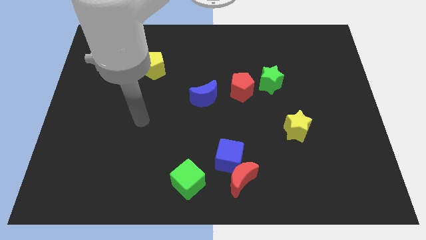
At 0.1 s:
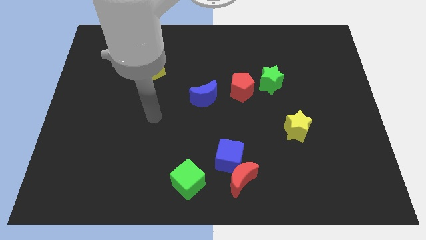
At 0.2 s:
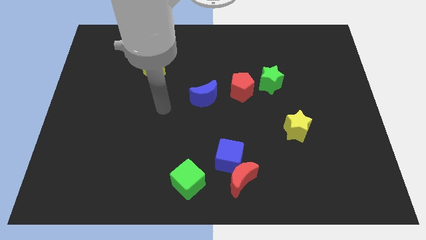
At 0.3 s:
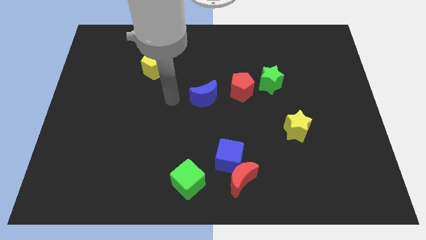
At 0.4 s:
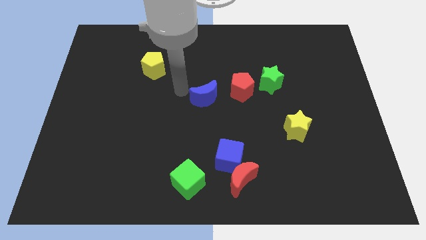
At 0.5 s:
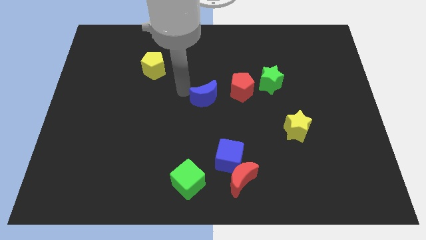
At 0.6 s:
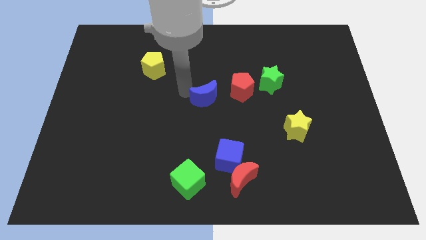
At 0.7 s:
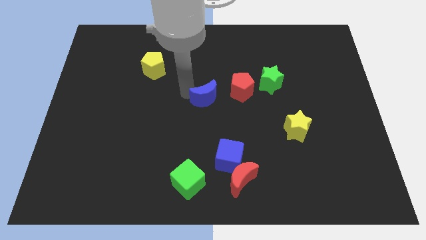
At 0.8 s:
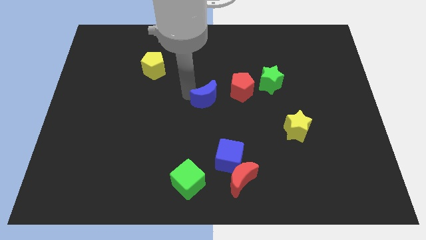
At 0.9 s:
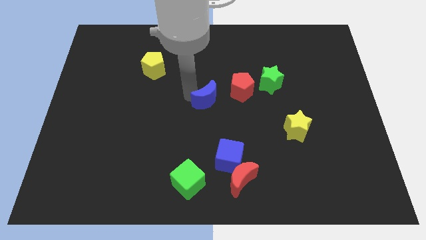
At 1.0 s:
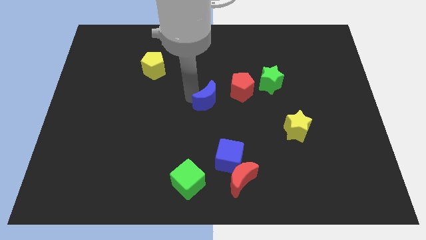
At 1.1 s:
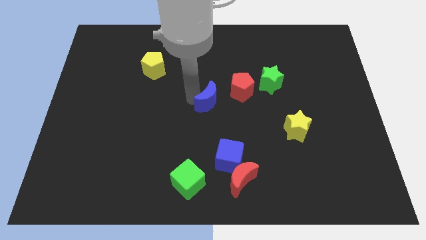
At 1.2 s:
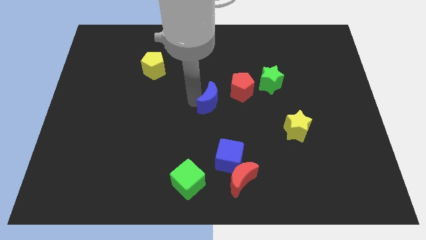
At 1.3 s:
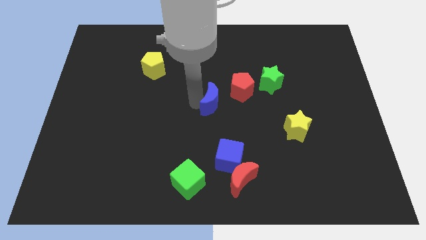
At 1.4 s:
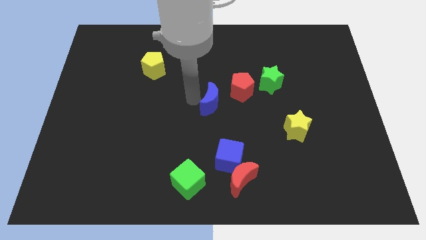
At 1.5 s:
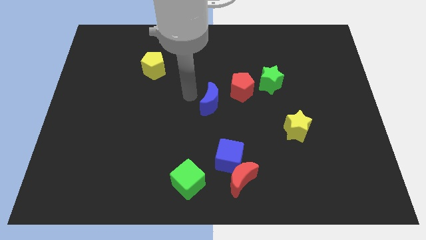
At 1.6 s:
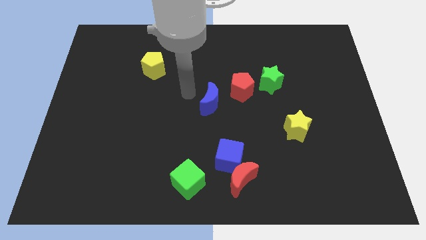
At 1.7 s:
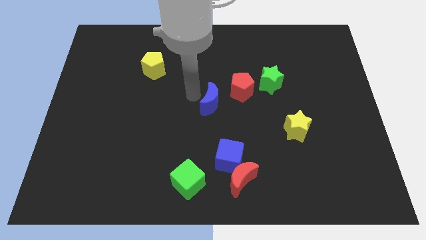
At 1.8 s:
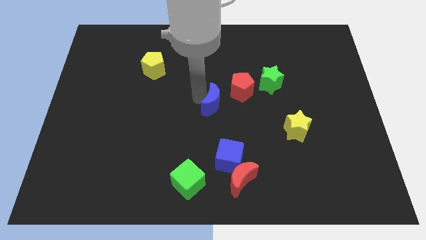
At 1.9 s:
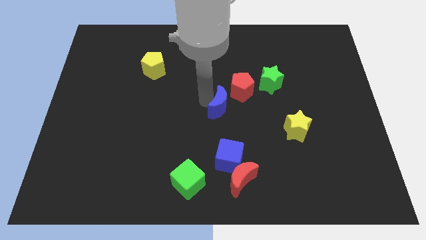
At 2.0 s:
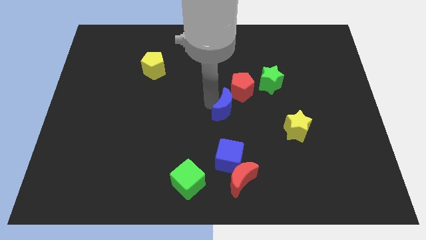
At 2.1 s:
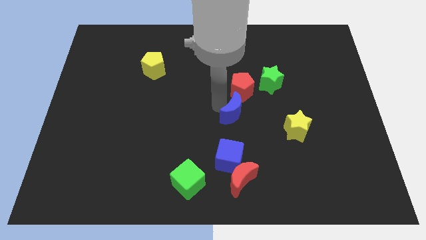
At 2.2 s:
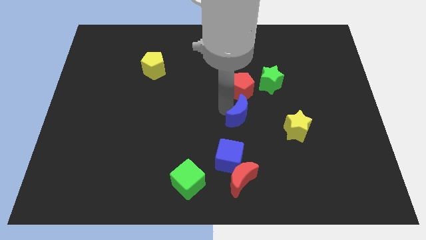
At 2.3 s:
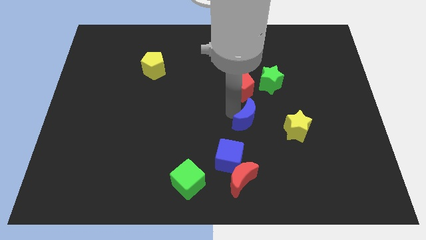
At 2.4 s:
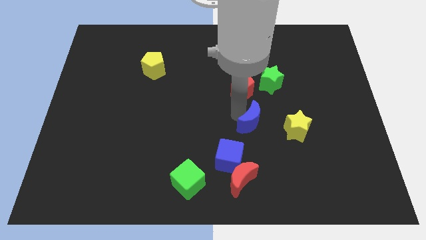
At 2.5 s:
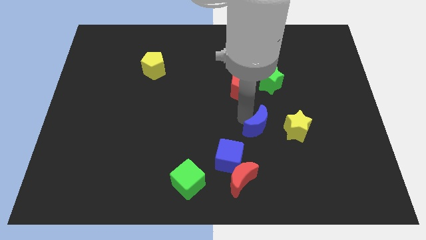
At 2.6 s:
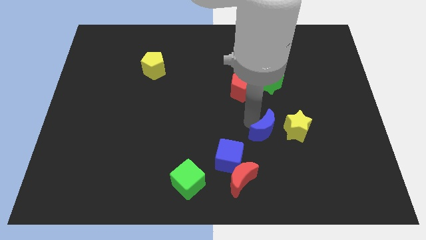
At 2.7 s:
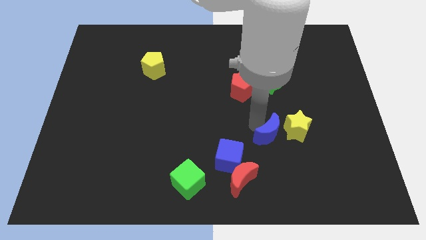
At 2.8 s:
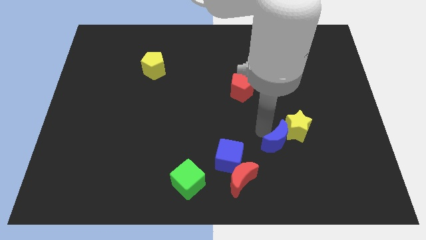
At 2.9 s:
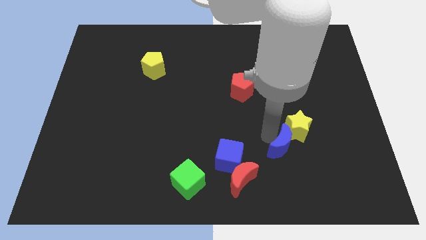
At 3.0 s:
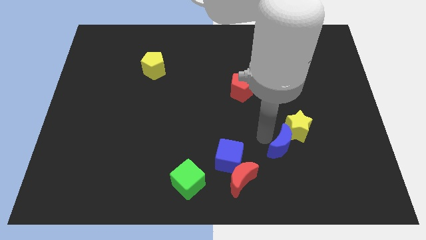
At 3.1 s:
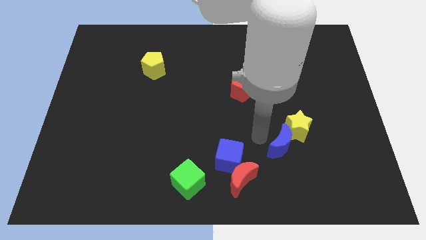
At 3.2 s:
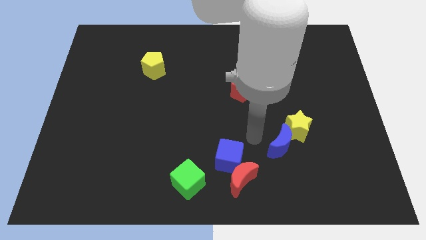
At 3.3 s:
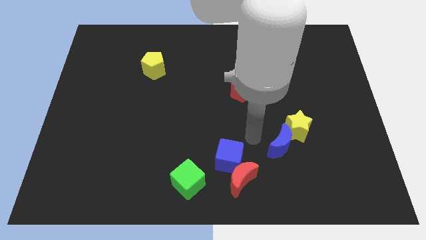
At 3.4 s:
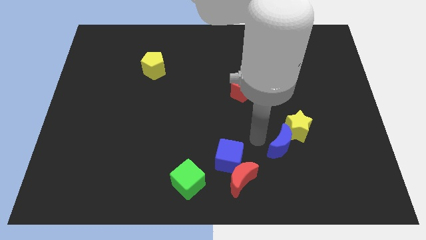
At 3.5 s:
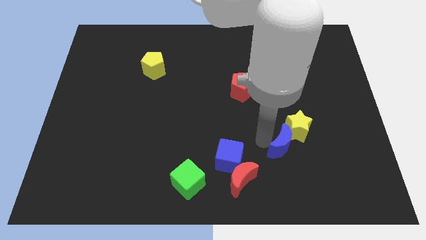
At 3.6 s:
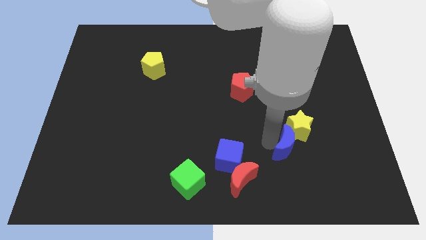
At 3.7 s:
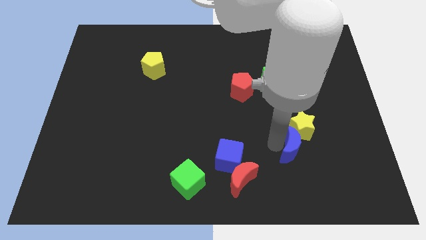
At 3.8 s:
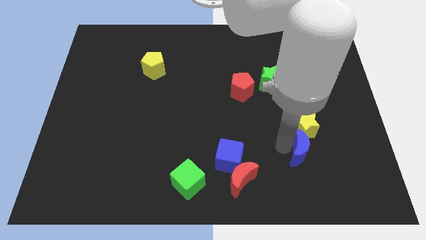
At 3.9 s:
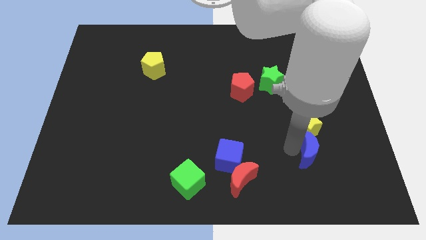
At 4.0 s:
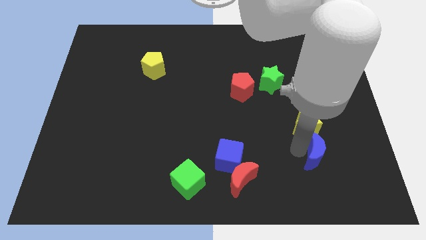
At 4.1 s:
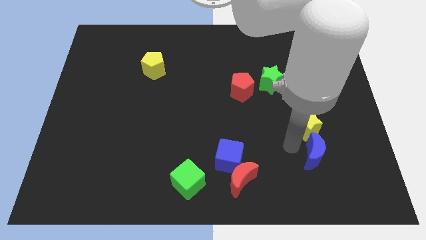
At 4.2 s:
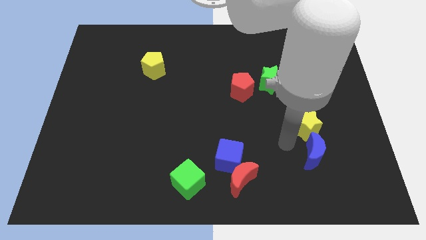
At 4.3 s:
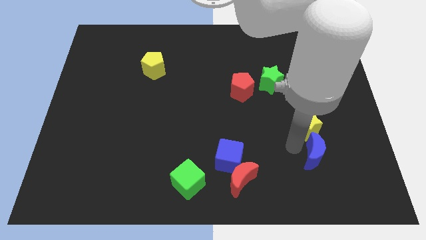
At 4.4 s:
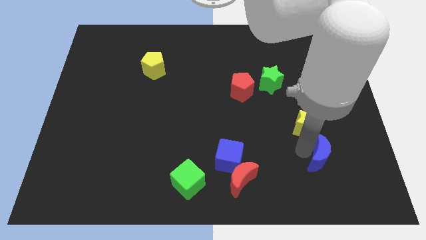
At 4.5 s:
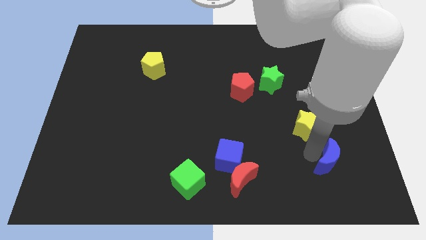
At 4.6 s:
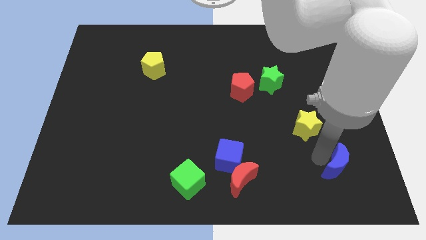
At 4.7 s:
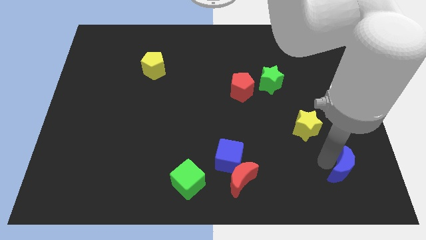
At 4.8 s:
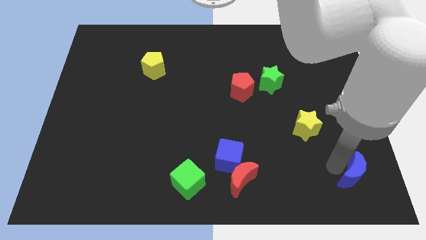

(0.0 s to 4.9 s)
push the blue moon to the bottom right of the board
